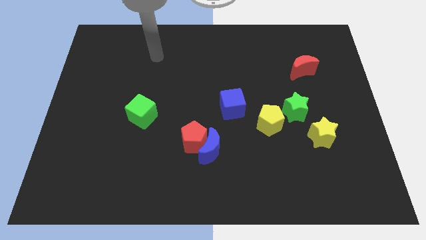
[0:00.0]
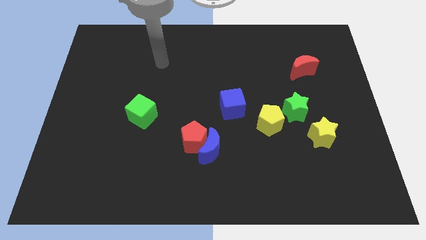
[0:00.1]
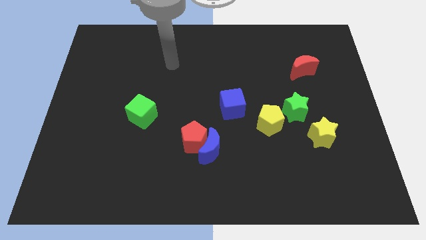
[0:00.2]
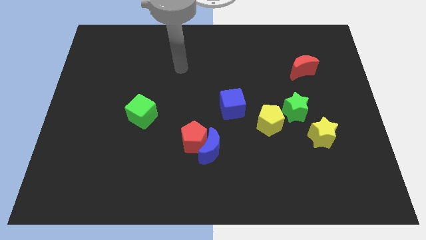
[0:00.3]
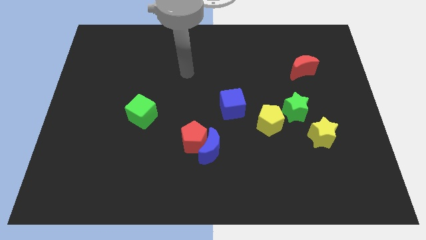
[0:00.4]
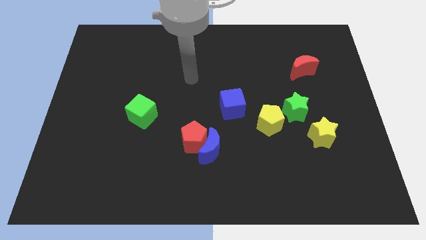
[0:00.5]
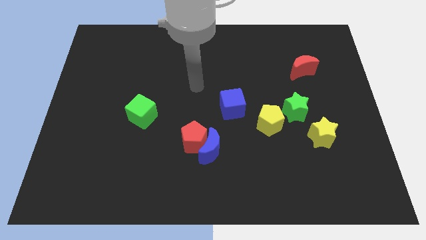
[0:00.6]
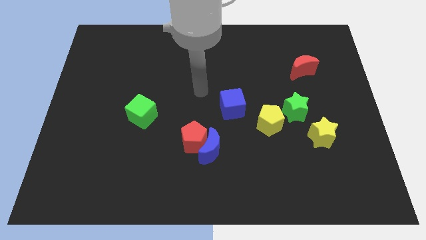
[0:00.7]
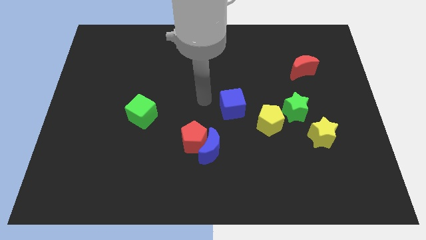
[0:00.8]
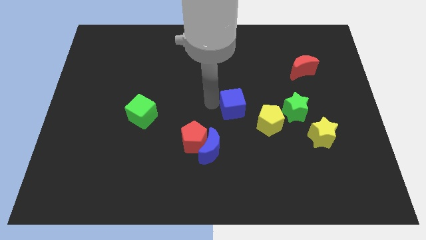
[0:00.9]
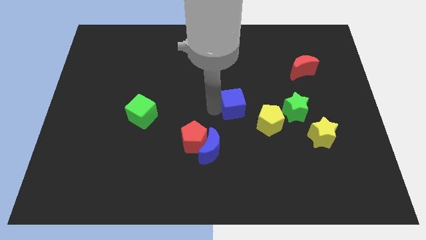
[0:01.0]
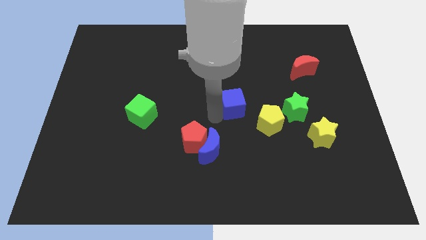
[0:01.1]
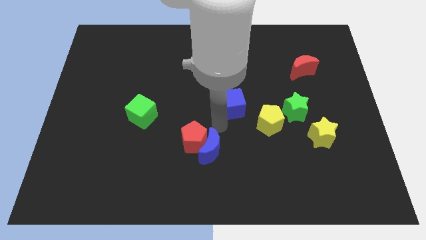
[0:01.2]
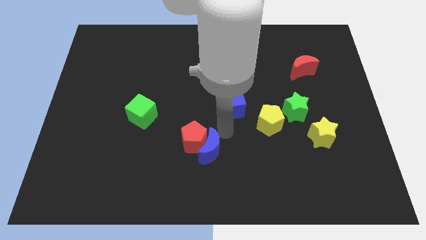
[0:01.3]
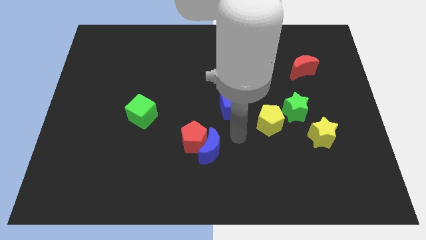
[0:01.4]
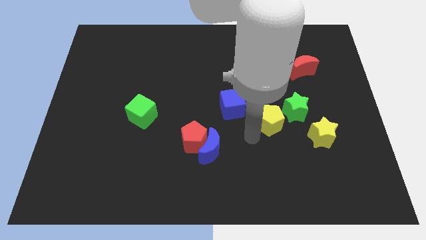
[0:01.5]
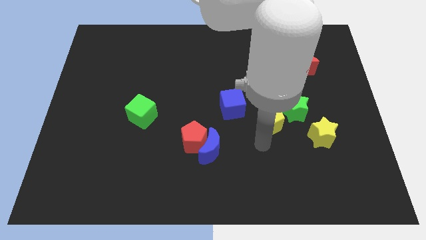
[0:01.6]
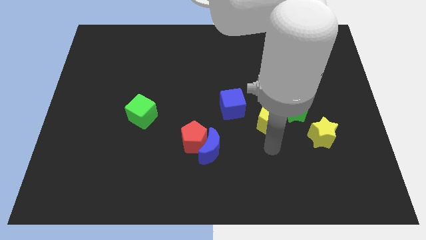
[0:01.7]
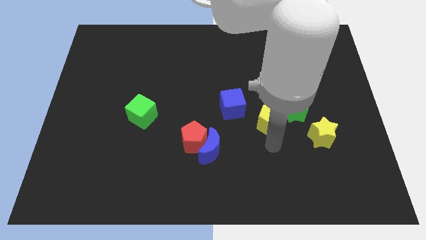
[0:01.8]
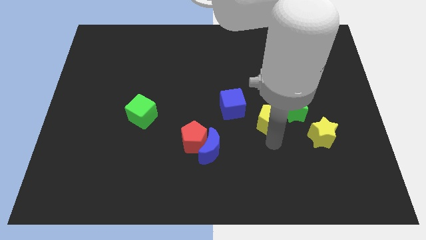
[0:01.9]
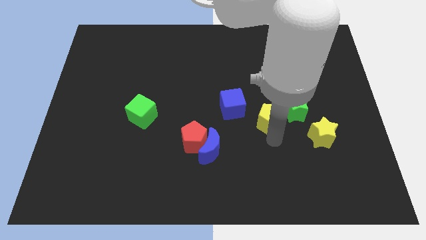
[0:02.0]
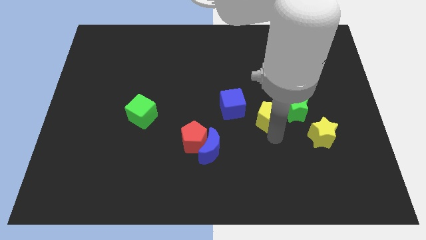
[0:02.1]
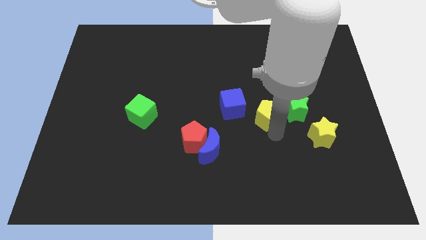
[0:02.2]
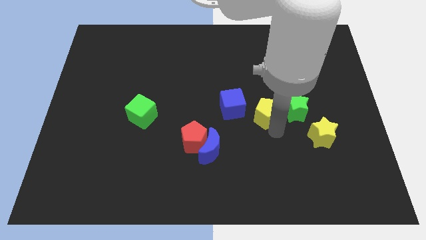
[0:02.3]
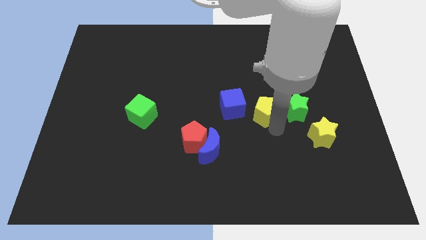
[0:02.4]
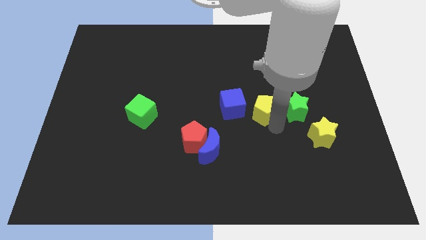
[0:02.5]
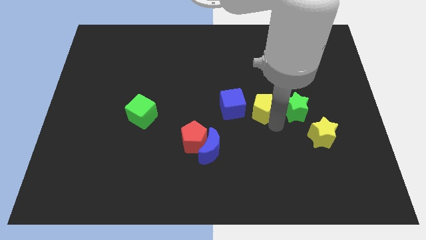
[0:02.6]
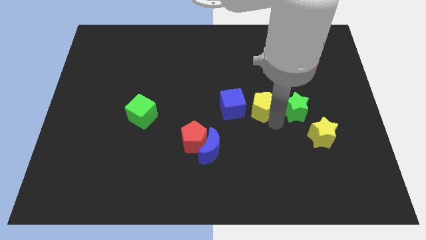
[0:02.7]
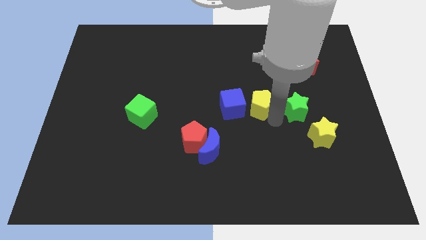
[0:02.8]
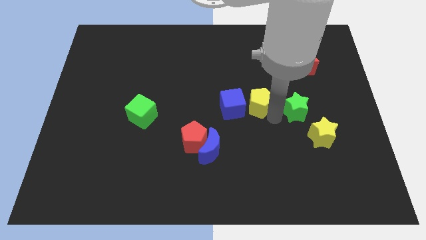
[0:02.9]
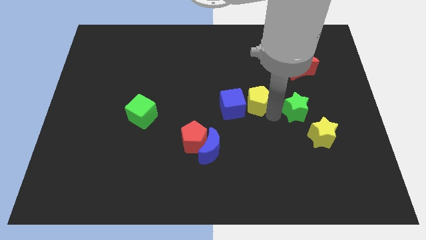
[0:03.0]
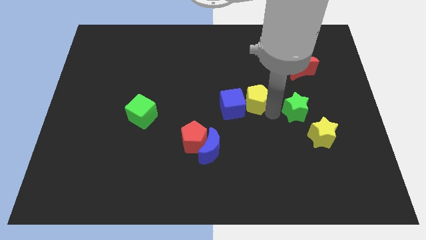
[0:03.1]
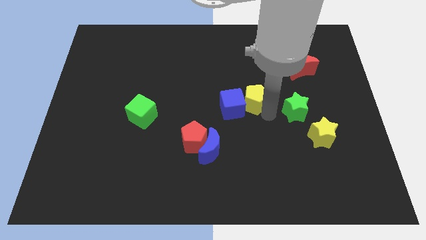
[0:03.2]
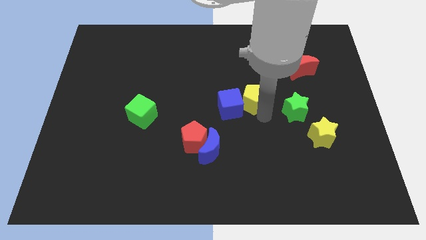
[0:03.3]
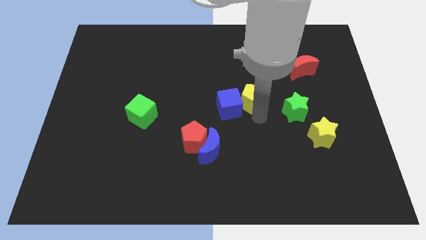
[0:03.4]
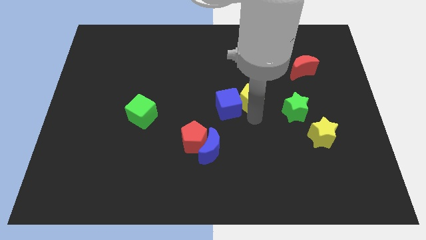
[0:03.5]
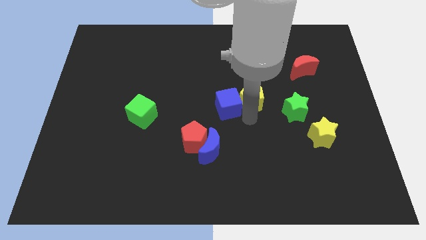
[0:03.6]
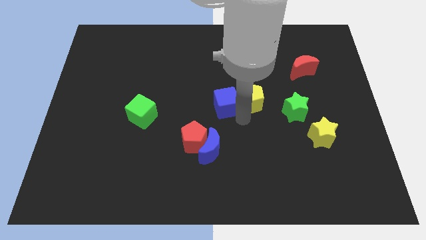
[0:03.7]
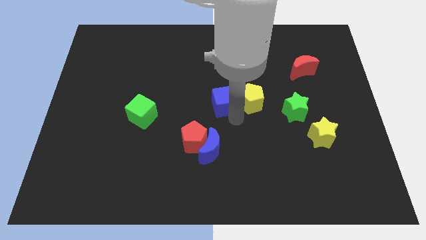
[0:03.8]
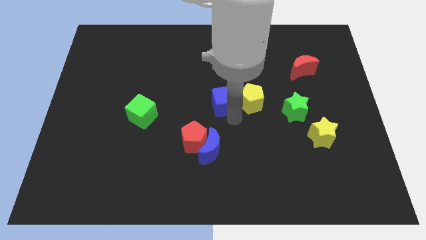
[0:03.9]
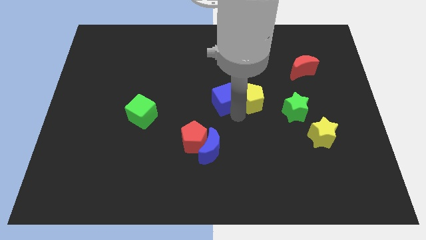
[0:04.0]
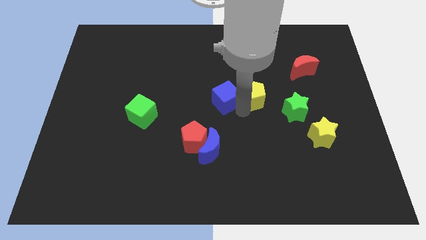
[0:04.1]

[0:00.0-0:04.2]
push the yellow pentagon upwards a little

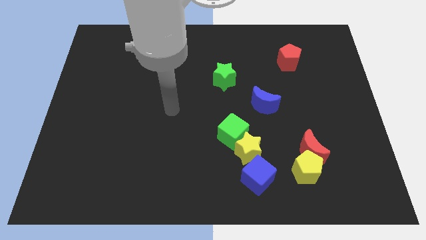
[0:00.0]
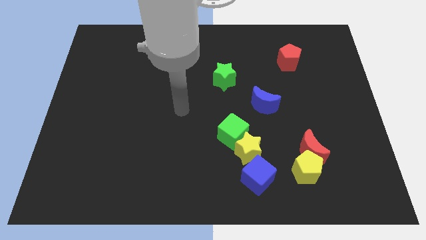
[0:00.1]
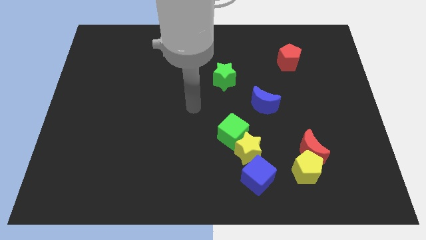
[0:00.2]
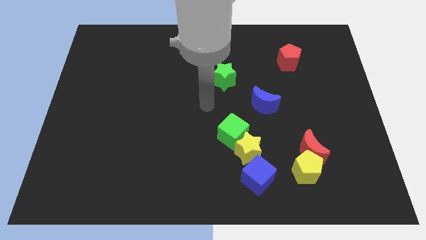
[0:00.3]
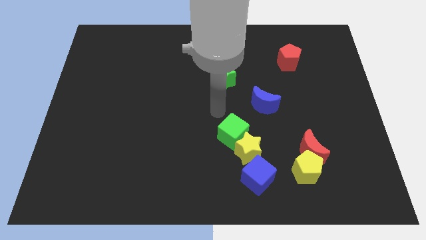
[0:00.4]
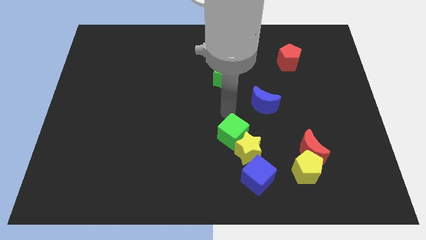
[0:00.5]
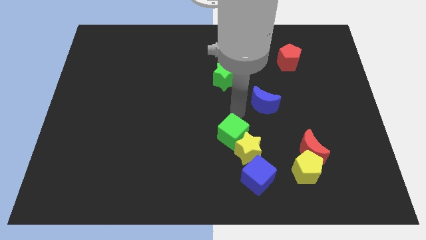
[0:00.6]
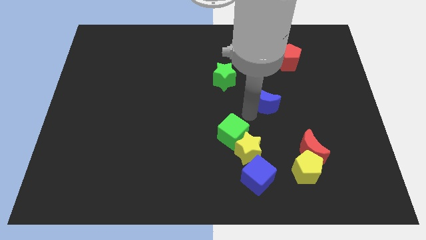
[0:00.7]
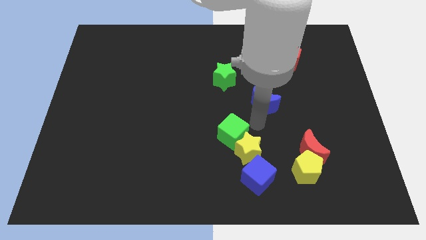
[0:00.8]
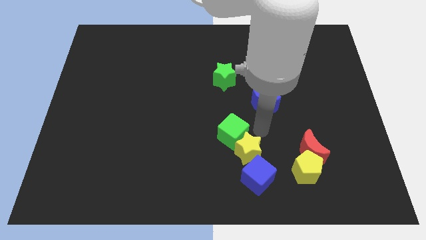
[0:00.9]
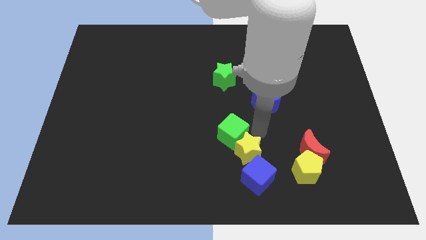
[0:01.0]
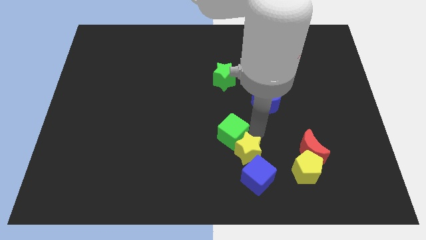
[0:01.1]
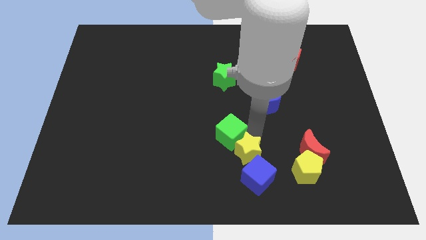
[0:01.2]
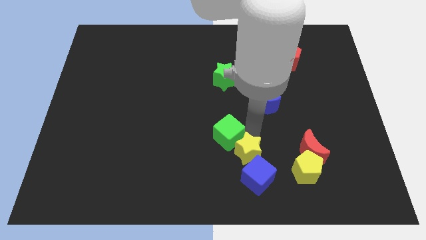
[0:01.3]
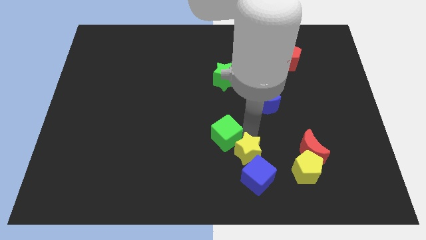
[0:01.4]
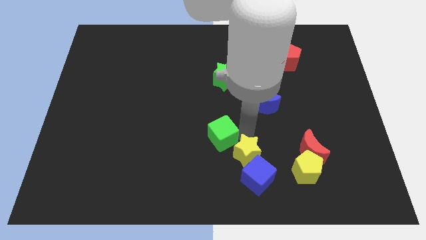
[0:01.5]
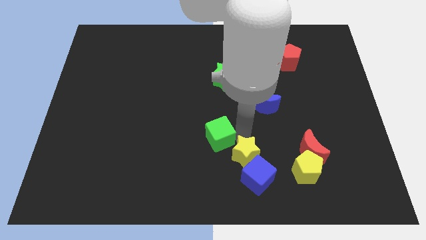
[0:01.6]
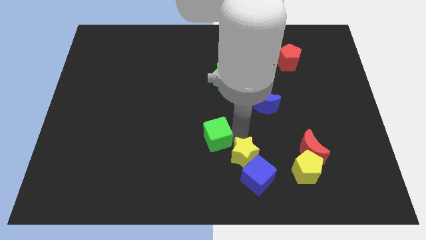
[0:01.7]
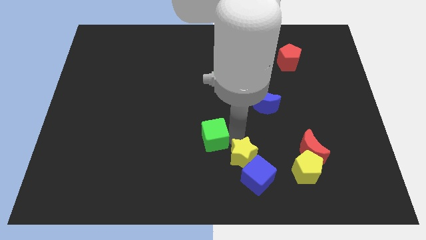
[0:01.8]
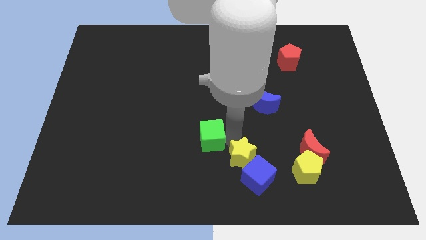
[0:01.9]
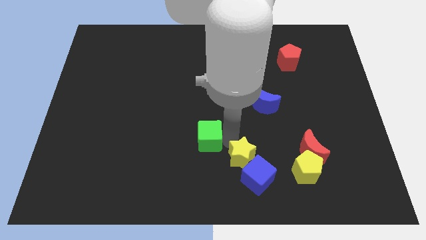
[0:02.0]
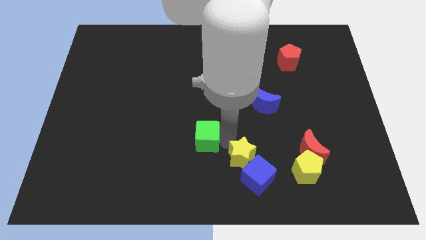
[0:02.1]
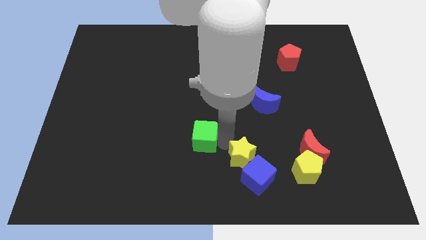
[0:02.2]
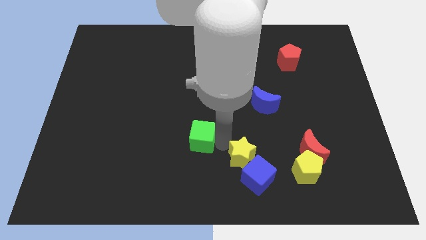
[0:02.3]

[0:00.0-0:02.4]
slide the green cube left a little bit

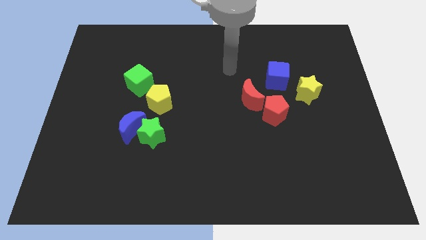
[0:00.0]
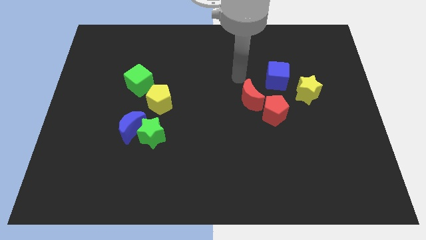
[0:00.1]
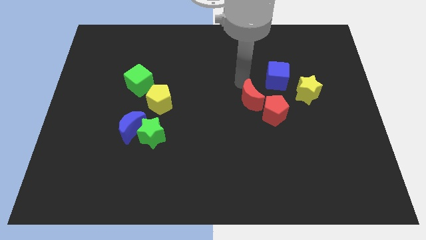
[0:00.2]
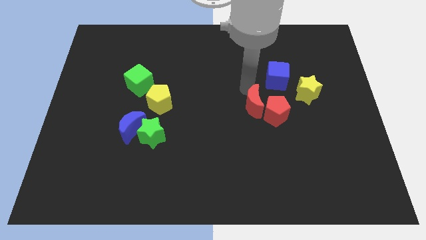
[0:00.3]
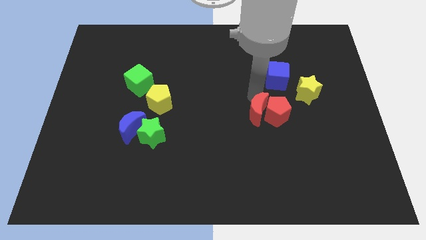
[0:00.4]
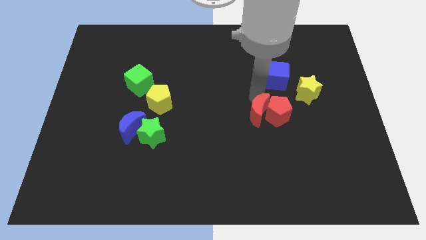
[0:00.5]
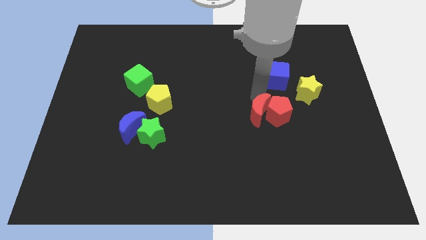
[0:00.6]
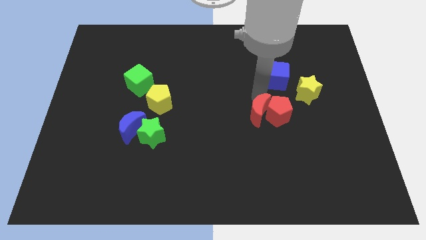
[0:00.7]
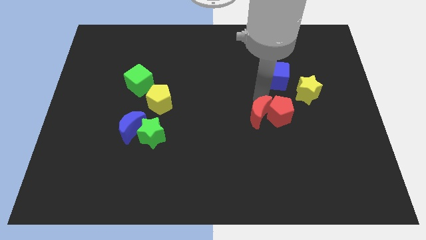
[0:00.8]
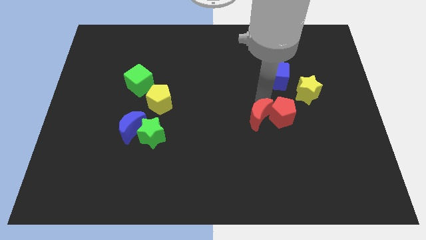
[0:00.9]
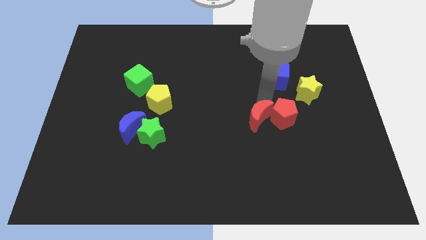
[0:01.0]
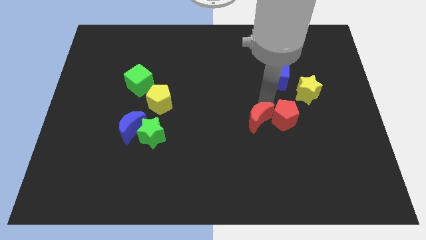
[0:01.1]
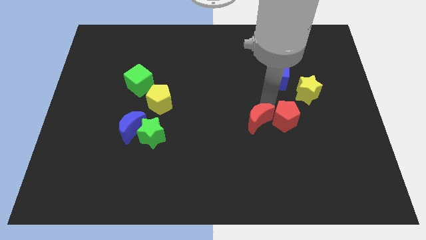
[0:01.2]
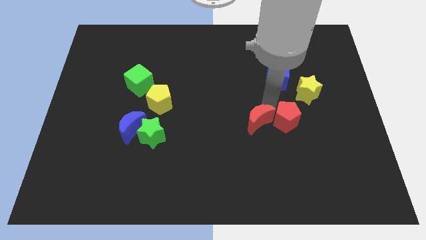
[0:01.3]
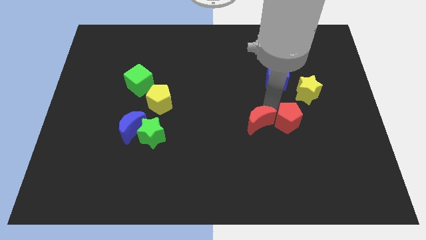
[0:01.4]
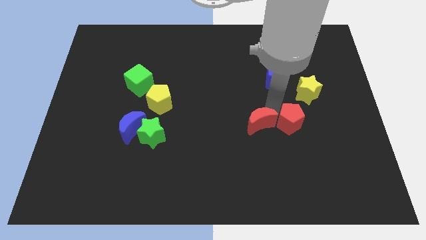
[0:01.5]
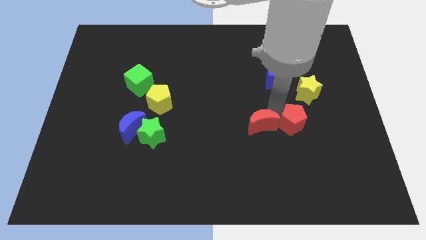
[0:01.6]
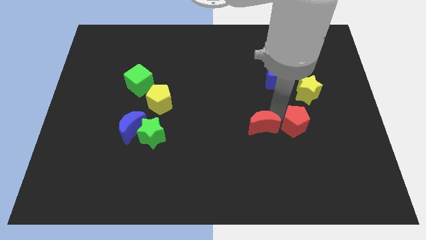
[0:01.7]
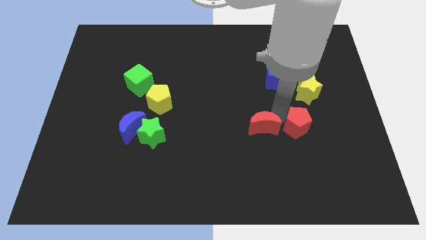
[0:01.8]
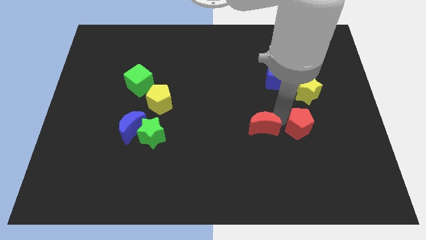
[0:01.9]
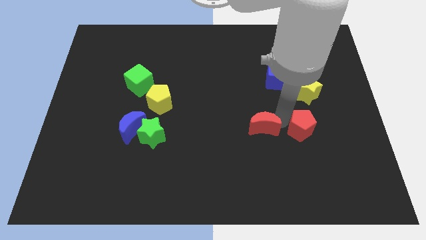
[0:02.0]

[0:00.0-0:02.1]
slightly slide the red pentagon diagonally down and to the right
